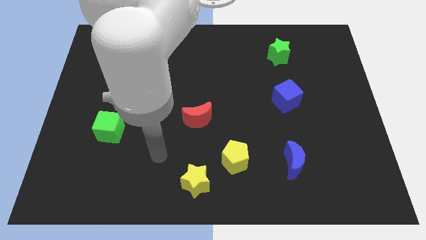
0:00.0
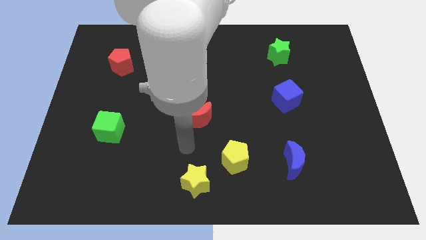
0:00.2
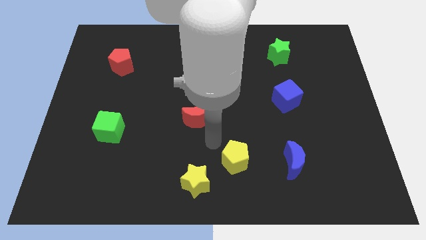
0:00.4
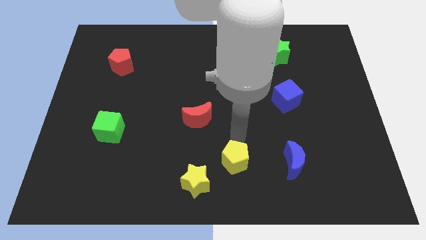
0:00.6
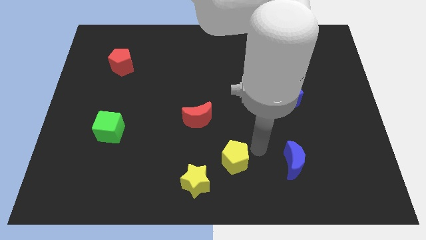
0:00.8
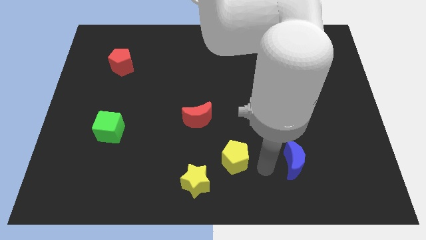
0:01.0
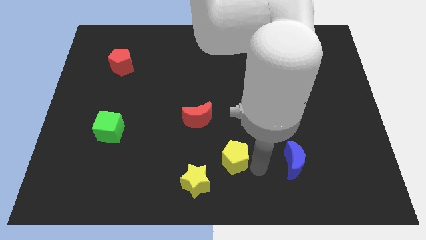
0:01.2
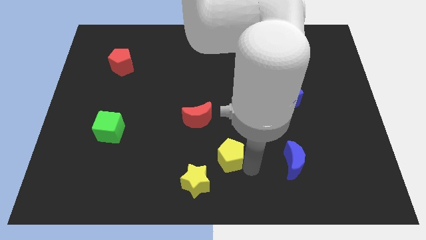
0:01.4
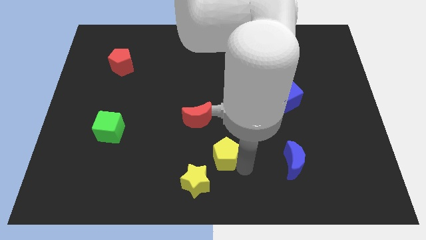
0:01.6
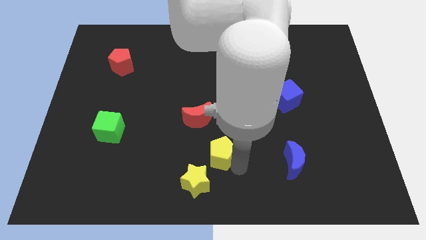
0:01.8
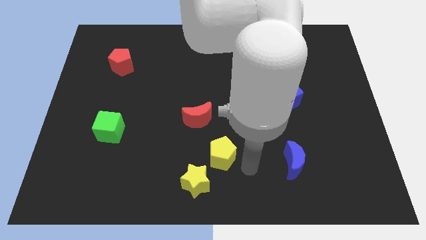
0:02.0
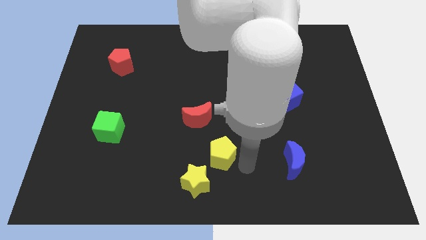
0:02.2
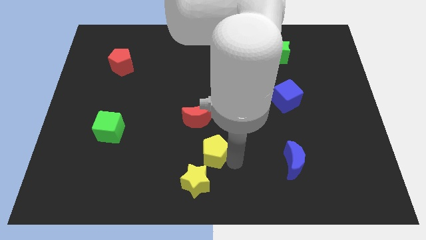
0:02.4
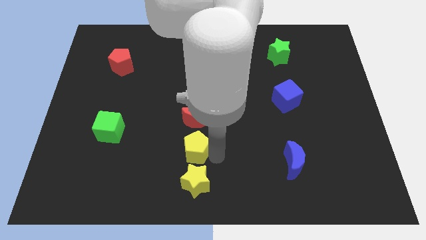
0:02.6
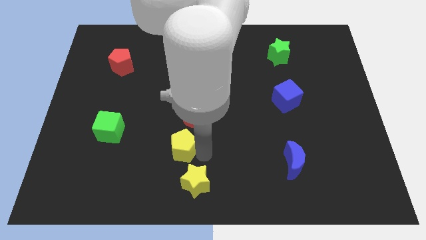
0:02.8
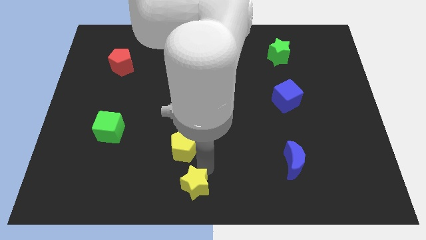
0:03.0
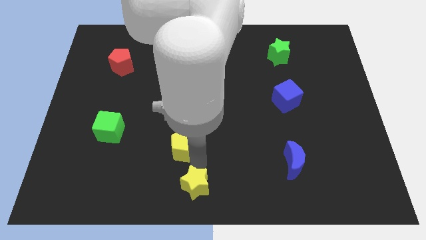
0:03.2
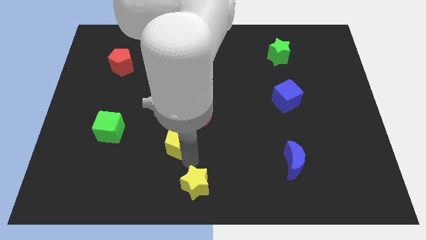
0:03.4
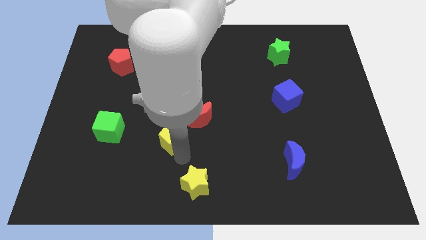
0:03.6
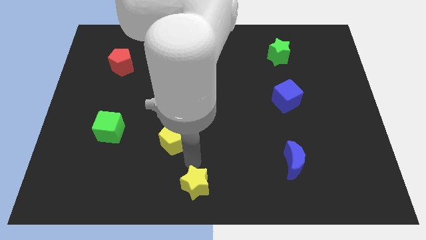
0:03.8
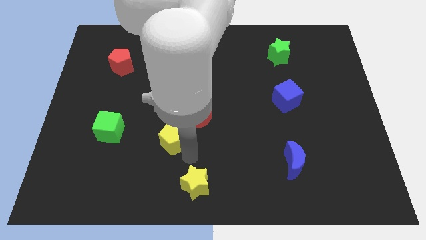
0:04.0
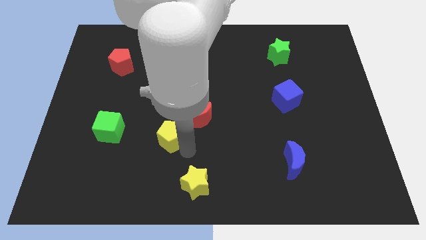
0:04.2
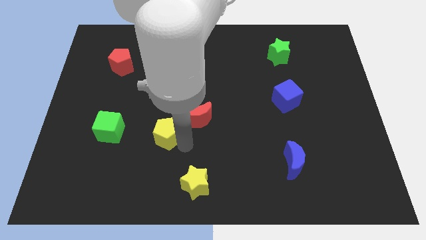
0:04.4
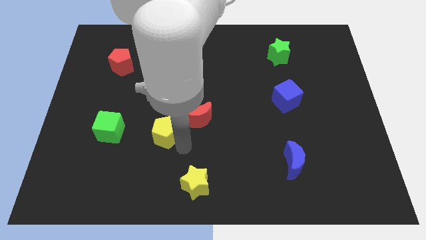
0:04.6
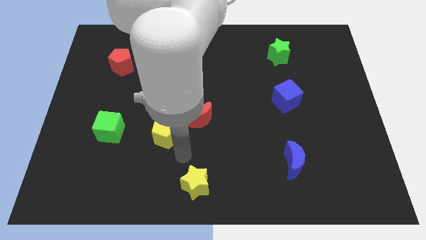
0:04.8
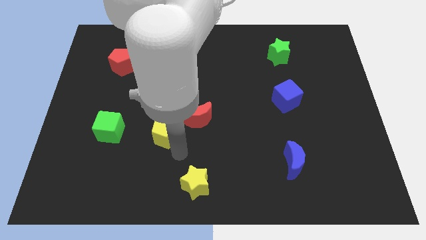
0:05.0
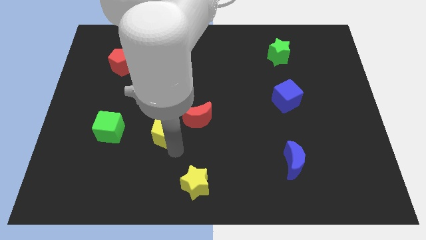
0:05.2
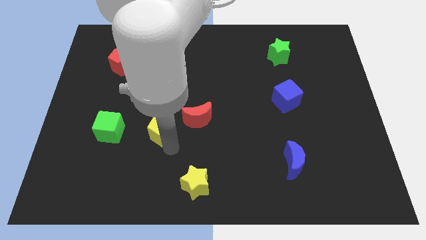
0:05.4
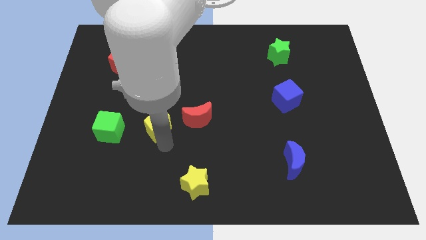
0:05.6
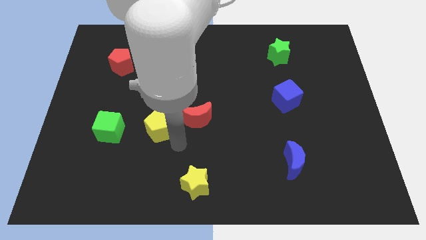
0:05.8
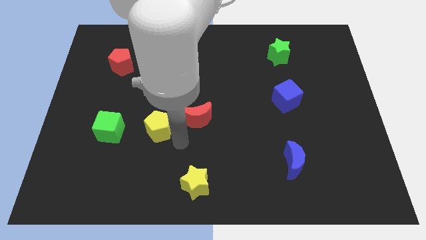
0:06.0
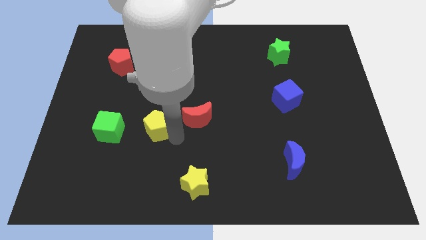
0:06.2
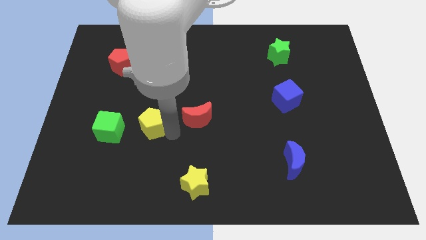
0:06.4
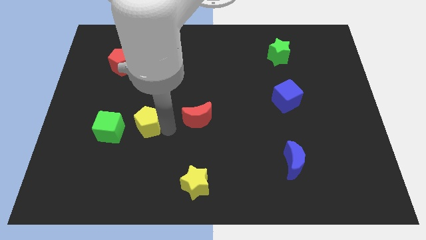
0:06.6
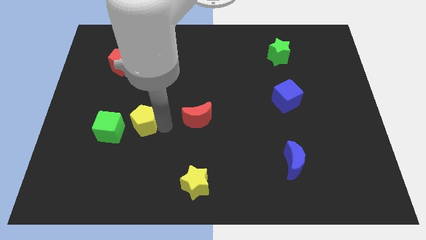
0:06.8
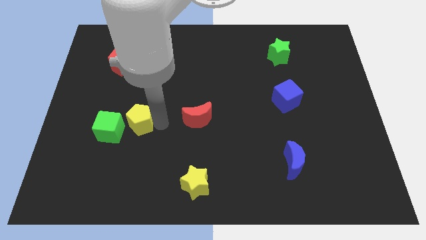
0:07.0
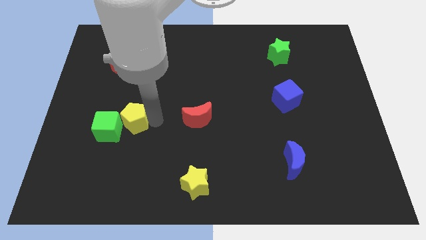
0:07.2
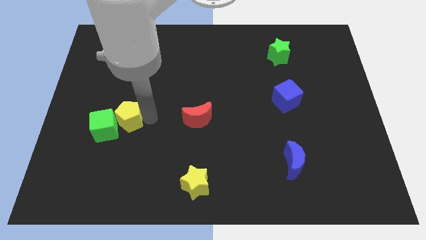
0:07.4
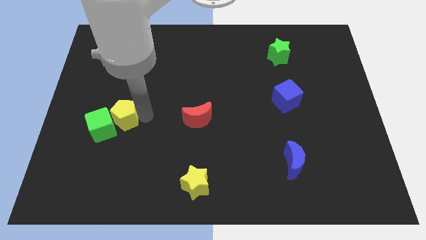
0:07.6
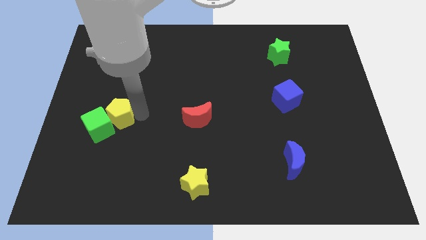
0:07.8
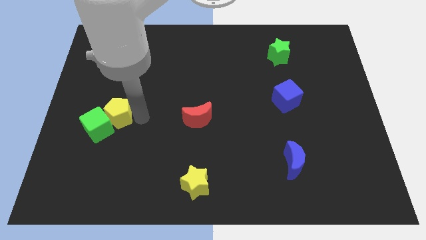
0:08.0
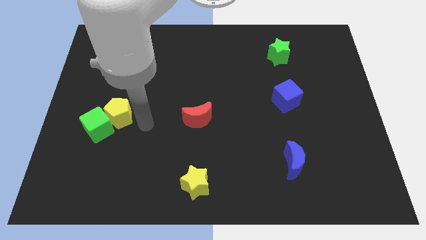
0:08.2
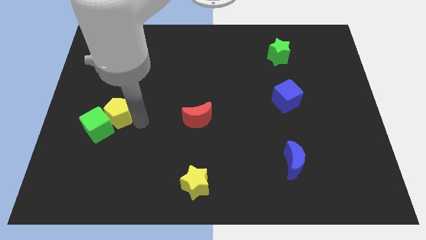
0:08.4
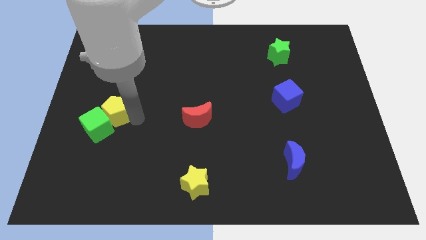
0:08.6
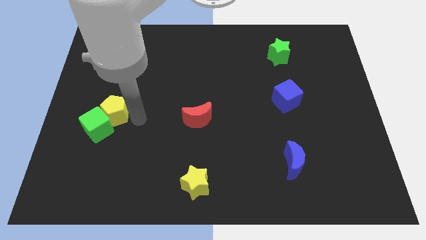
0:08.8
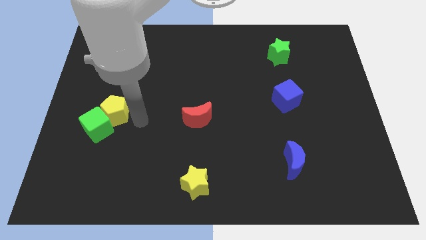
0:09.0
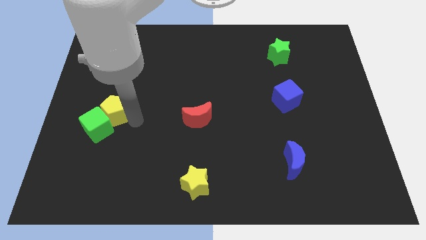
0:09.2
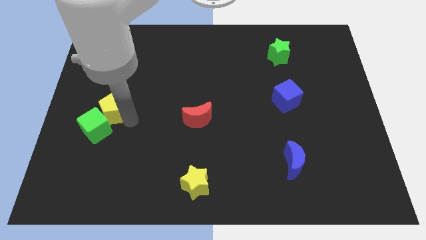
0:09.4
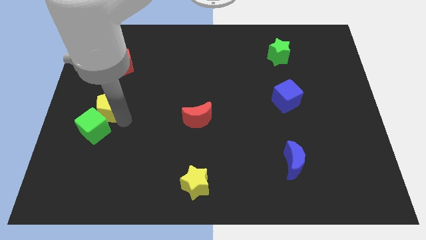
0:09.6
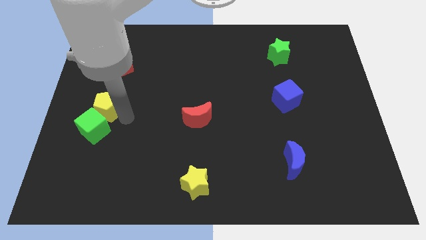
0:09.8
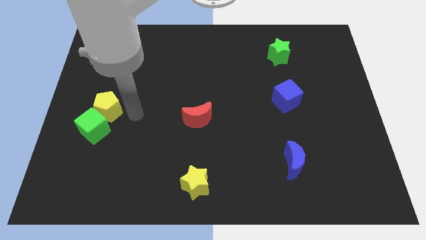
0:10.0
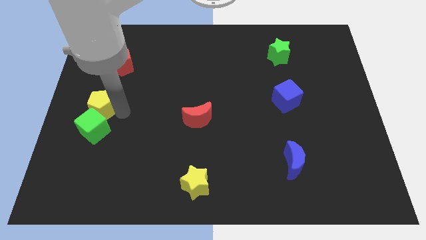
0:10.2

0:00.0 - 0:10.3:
push the yellow pentagon to the left side of the board

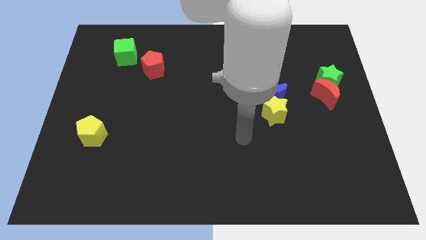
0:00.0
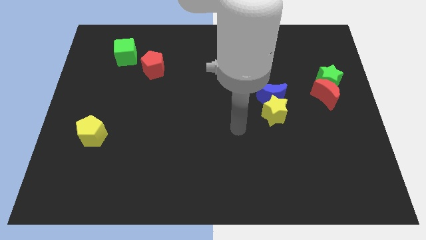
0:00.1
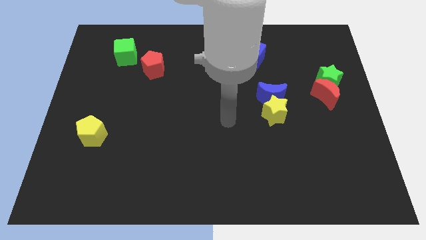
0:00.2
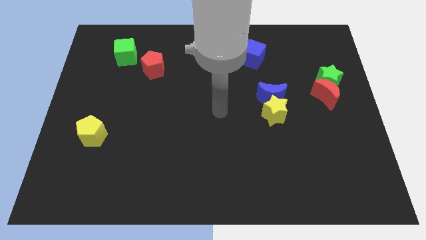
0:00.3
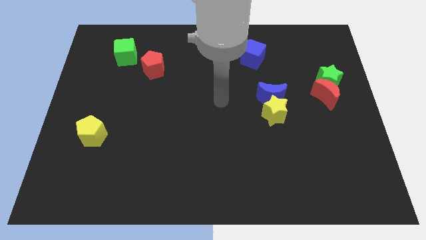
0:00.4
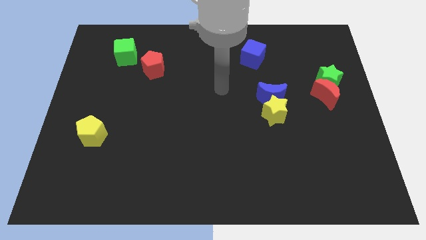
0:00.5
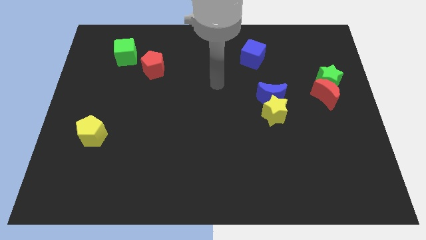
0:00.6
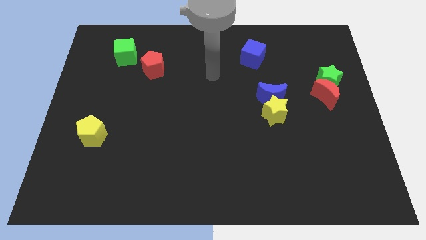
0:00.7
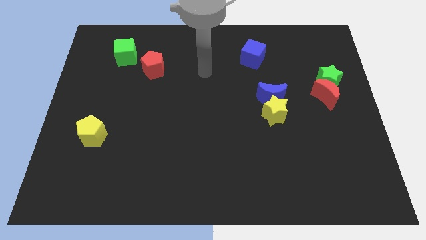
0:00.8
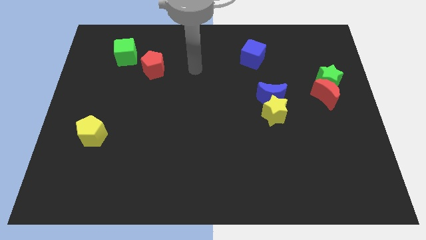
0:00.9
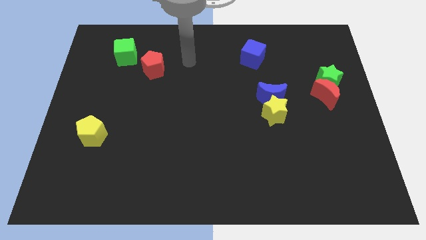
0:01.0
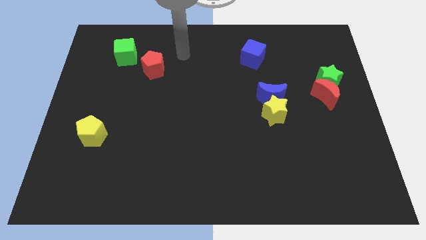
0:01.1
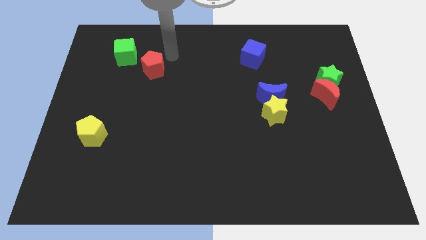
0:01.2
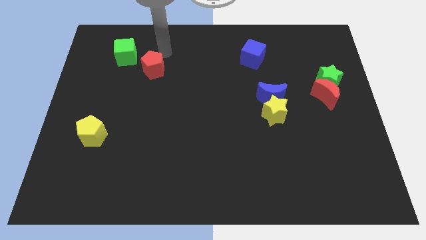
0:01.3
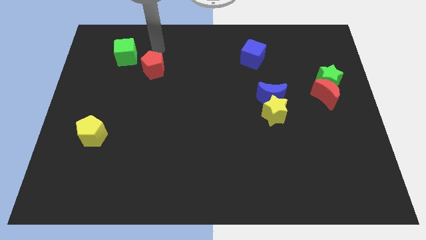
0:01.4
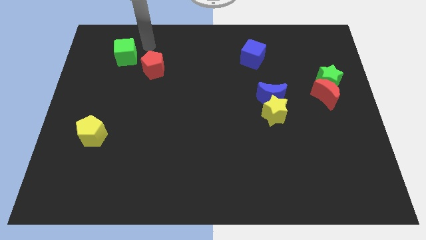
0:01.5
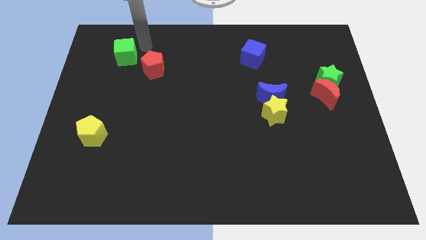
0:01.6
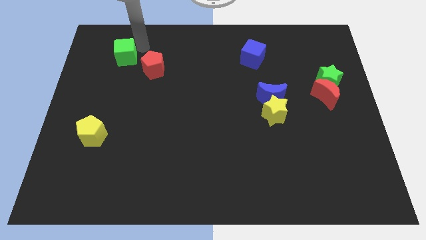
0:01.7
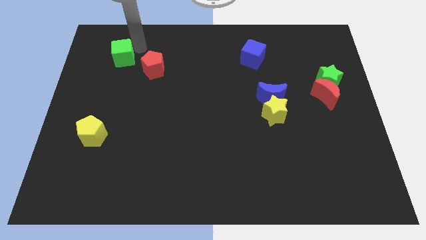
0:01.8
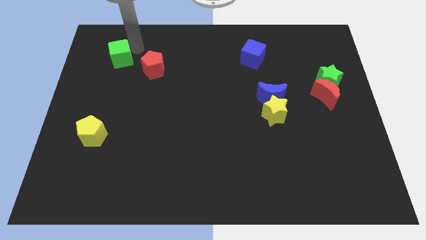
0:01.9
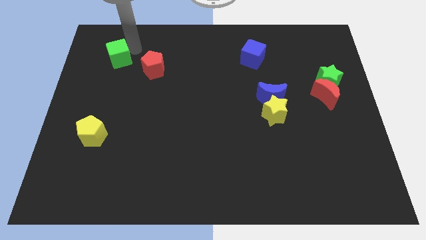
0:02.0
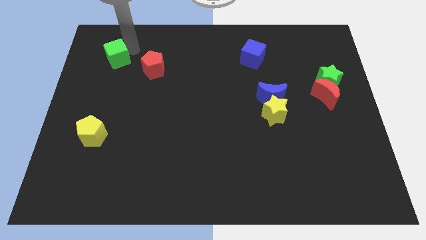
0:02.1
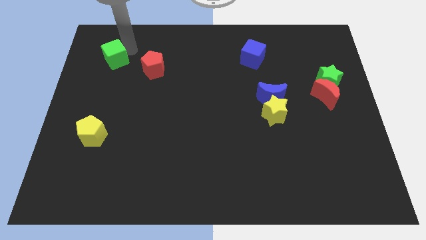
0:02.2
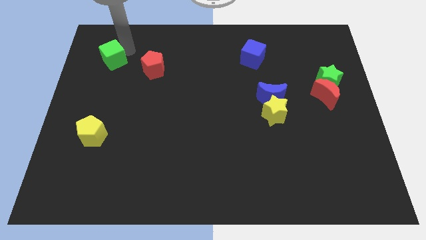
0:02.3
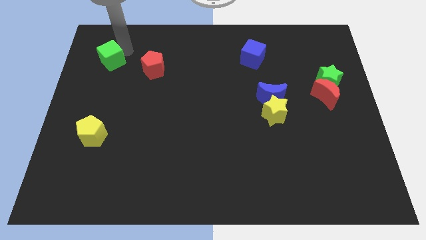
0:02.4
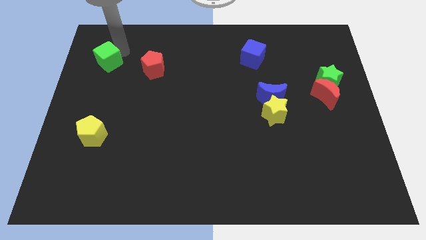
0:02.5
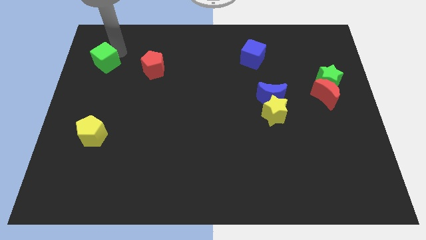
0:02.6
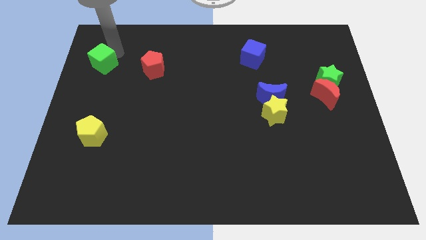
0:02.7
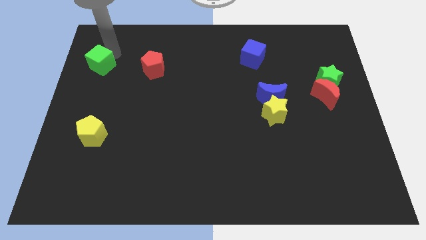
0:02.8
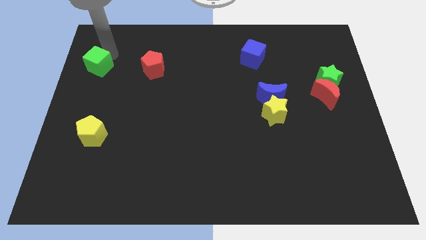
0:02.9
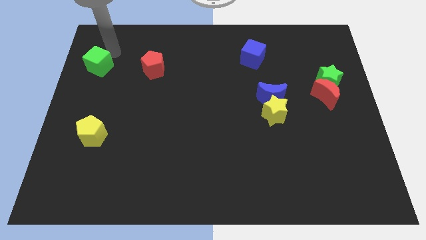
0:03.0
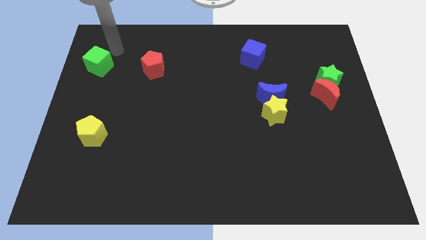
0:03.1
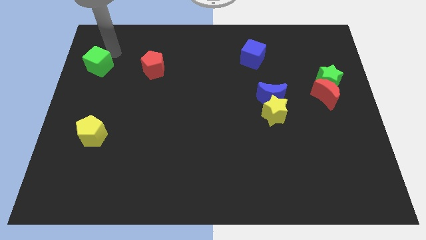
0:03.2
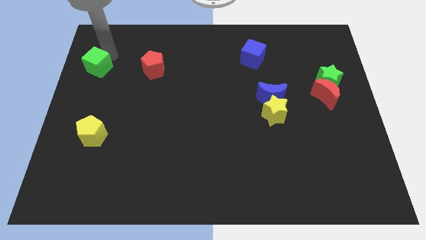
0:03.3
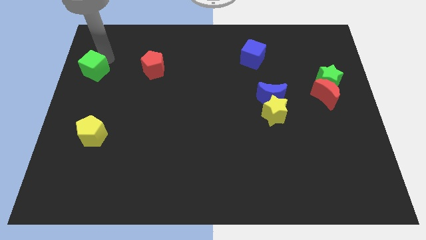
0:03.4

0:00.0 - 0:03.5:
move the green cube to the center left
